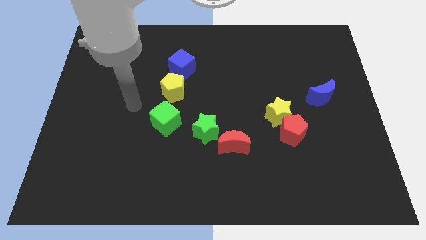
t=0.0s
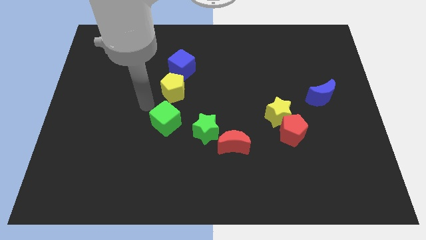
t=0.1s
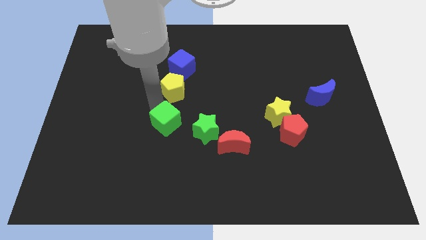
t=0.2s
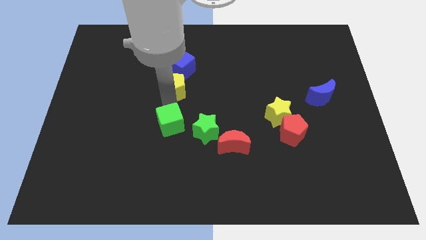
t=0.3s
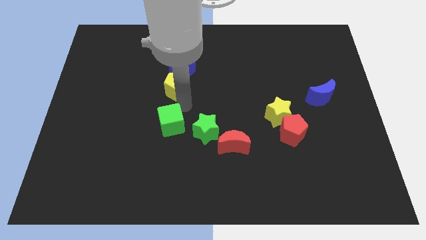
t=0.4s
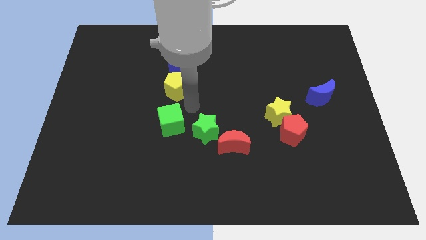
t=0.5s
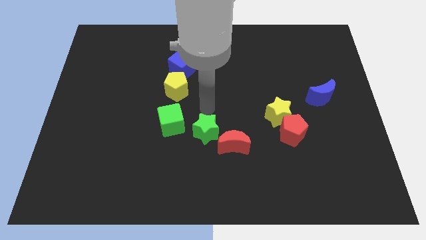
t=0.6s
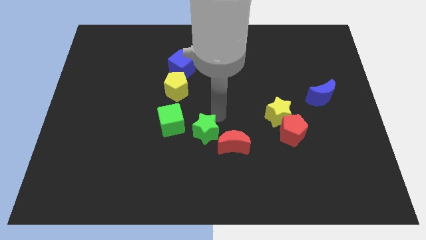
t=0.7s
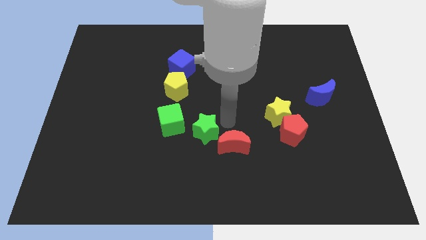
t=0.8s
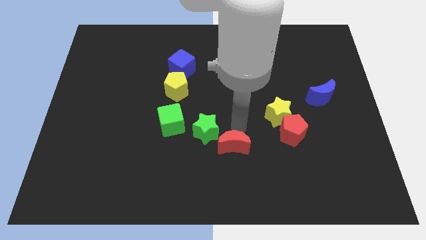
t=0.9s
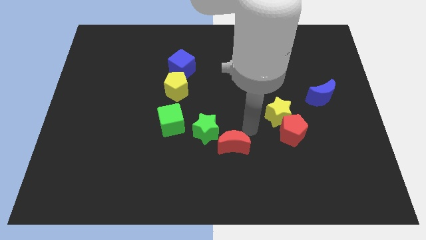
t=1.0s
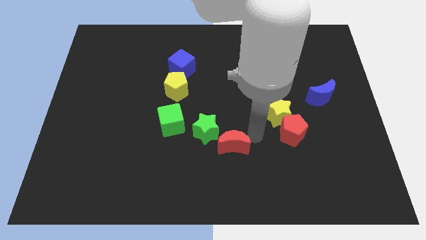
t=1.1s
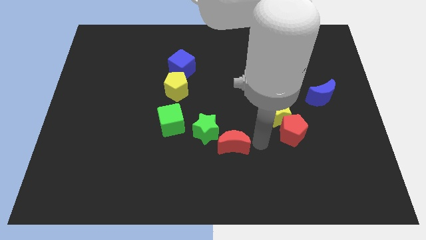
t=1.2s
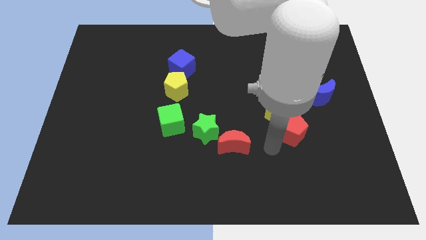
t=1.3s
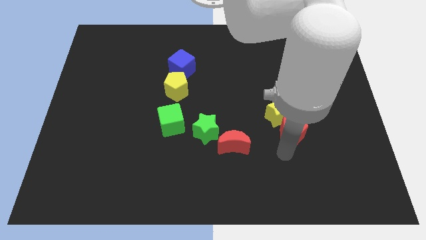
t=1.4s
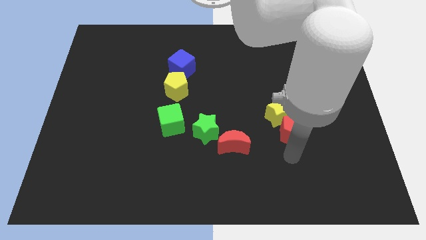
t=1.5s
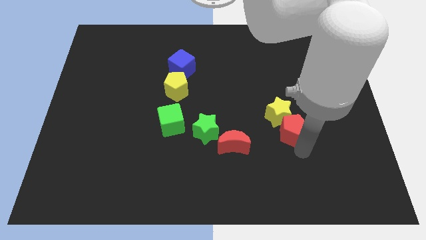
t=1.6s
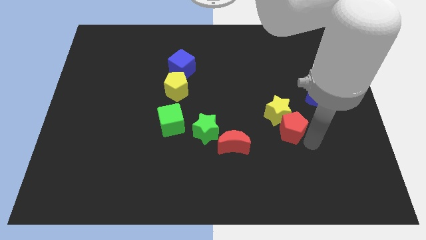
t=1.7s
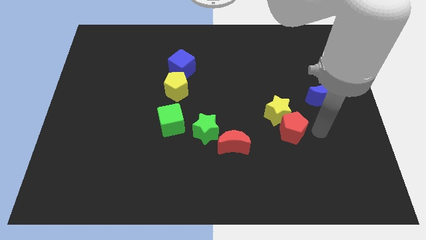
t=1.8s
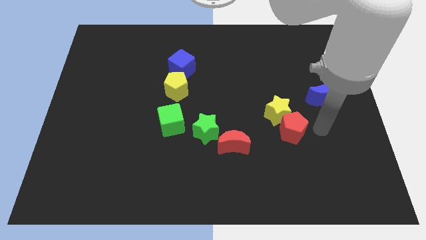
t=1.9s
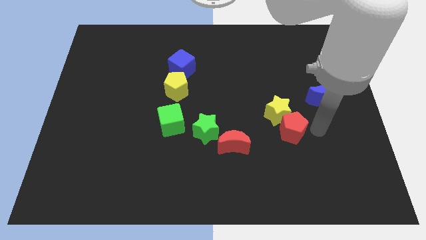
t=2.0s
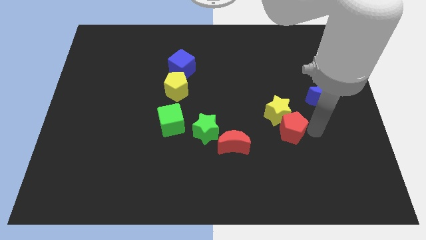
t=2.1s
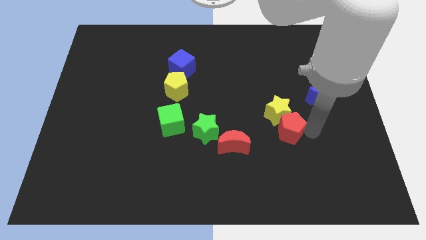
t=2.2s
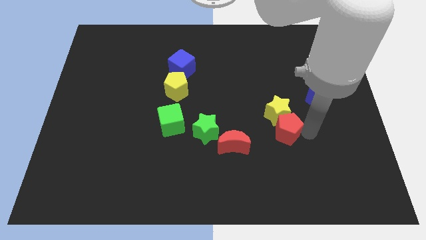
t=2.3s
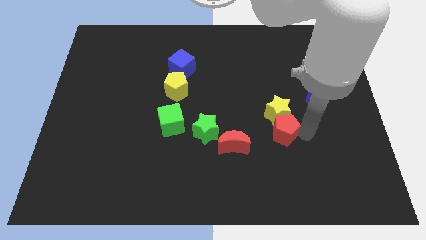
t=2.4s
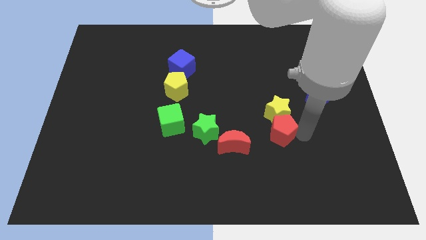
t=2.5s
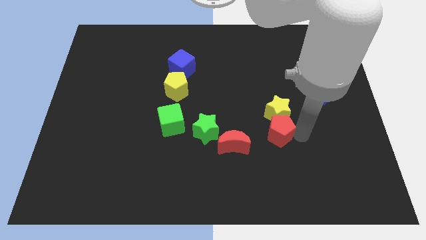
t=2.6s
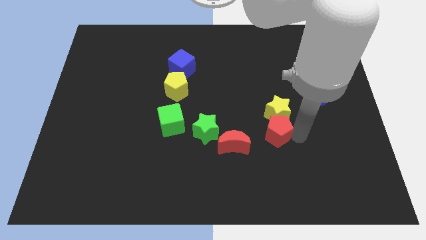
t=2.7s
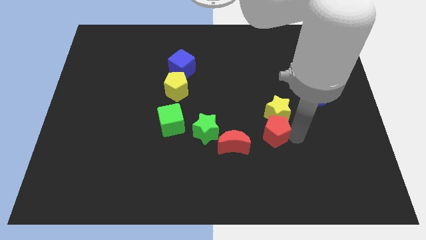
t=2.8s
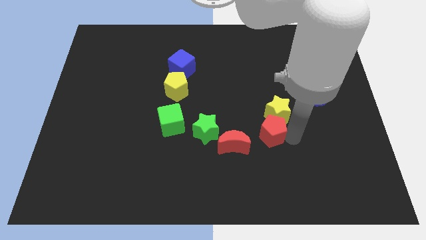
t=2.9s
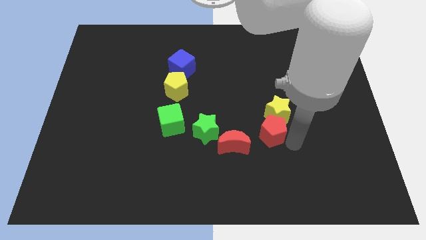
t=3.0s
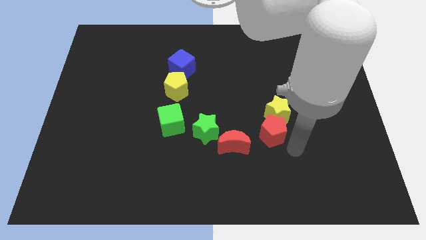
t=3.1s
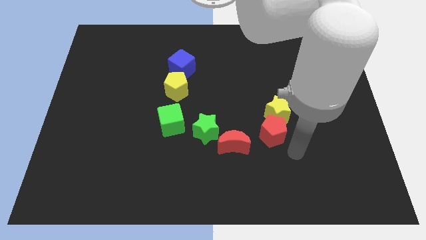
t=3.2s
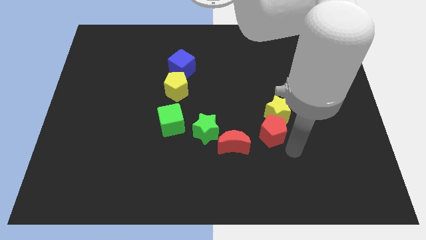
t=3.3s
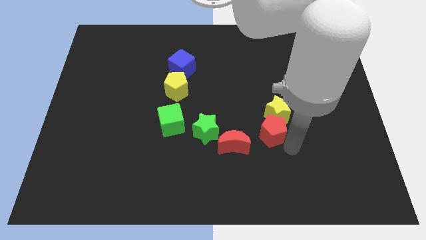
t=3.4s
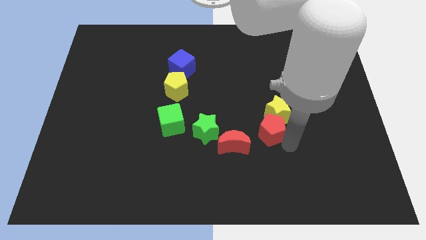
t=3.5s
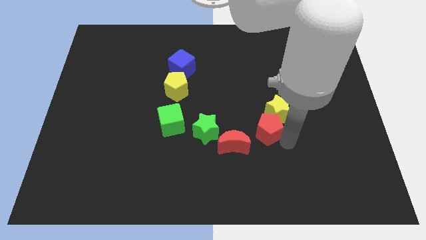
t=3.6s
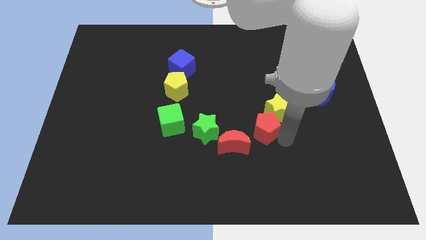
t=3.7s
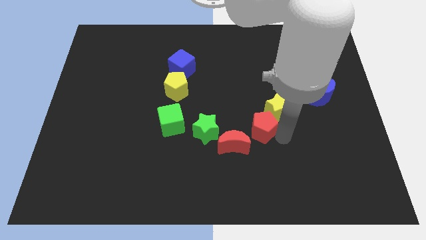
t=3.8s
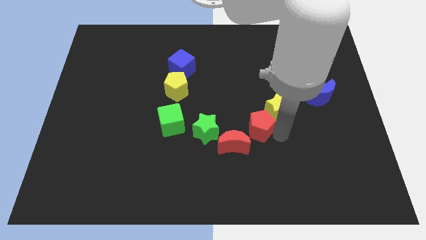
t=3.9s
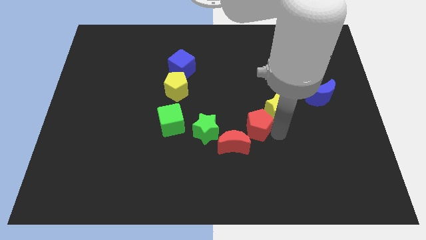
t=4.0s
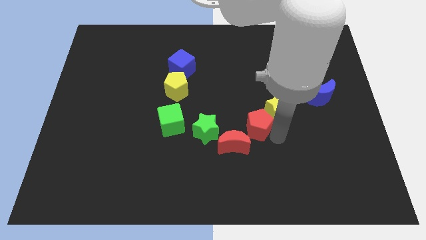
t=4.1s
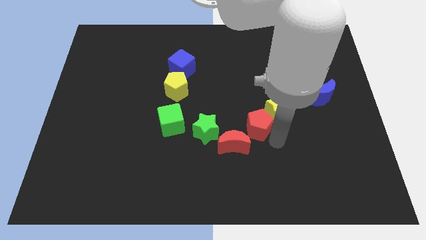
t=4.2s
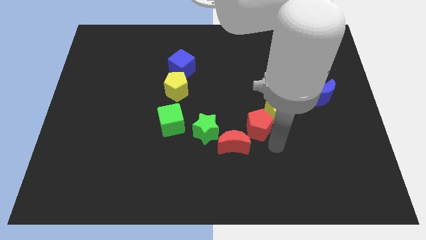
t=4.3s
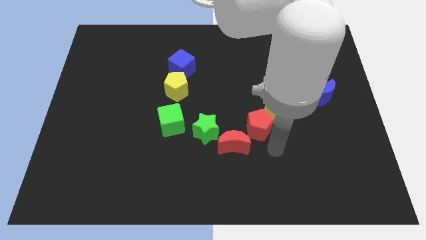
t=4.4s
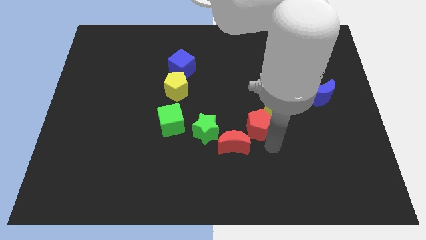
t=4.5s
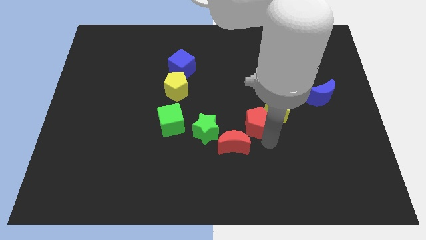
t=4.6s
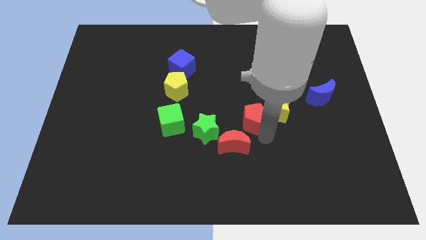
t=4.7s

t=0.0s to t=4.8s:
move the red pentagon slightly upwards and left diagonally

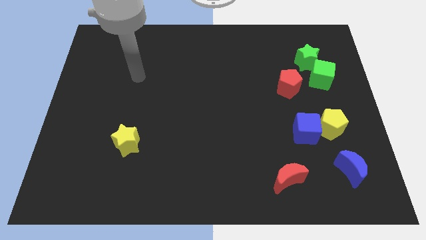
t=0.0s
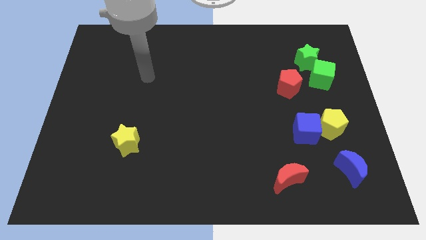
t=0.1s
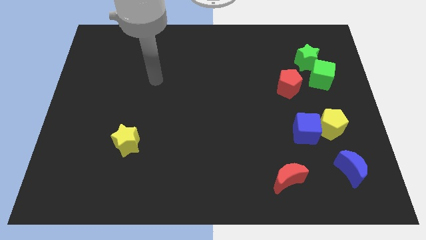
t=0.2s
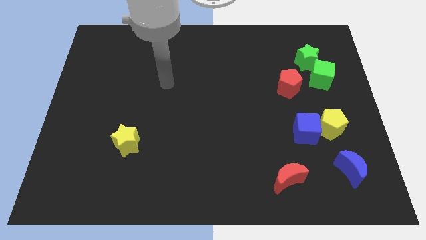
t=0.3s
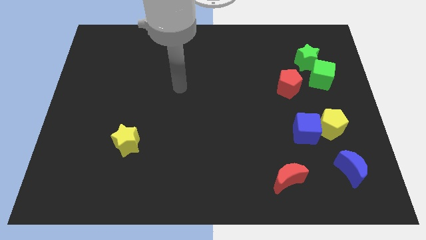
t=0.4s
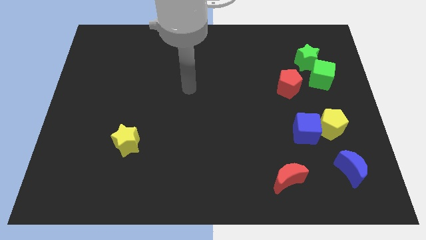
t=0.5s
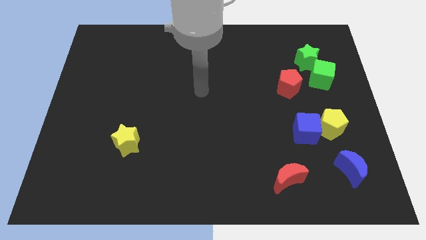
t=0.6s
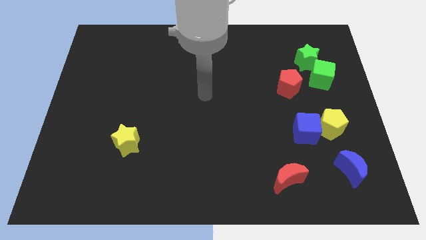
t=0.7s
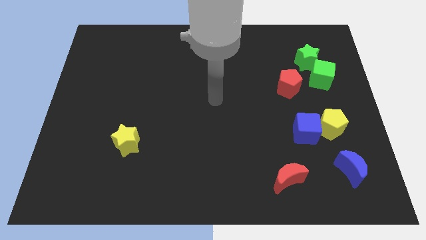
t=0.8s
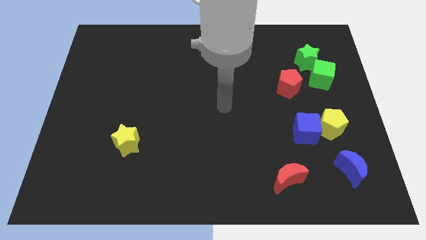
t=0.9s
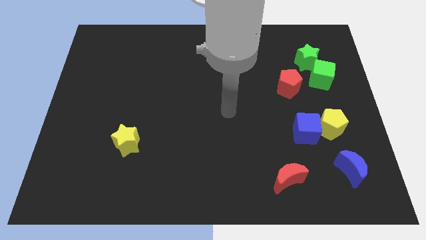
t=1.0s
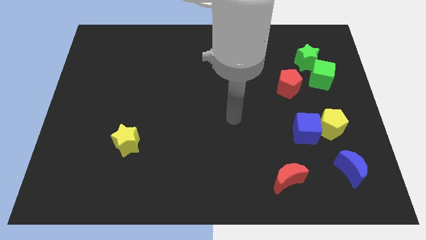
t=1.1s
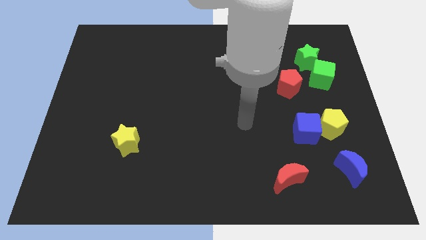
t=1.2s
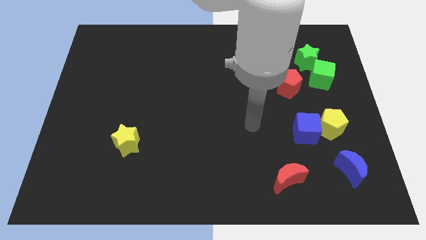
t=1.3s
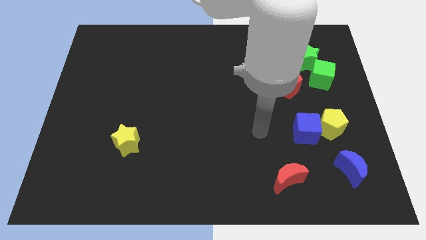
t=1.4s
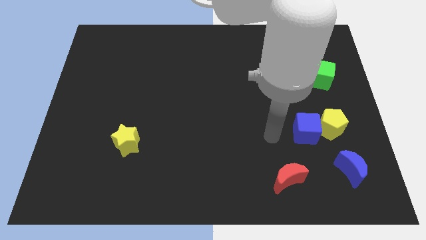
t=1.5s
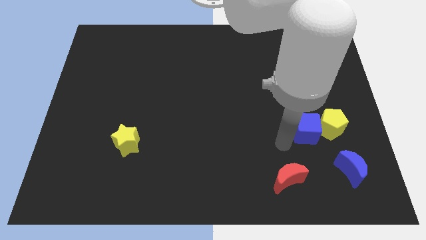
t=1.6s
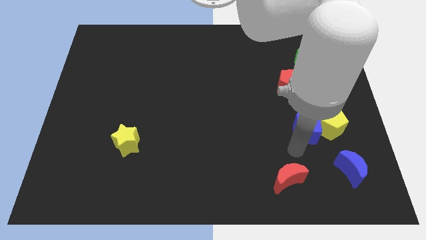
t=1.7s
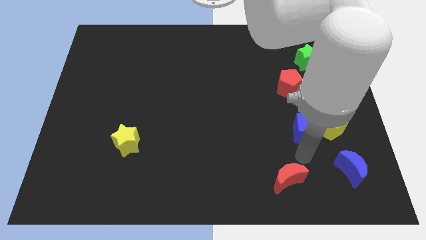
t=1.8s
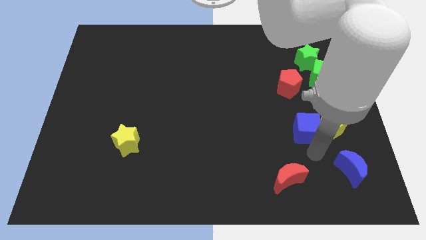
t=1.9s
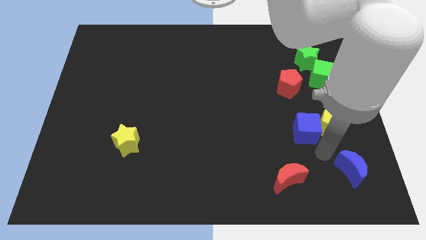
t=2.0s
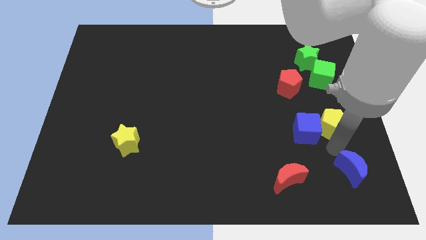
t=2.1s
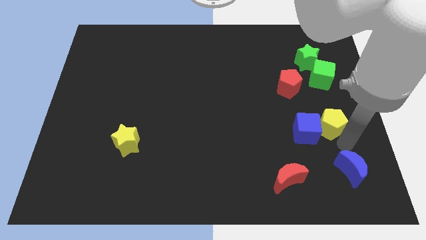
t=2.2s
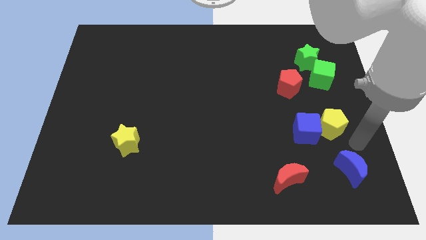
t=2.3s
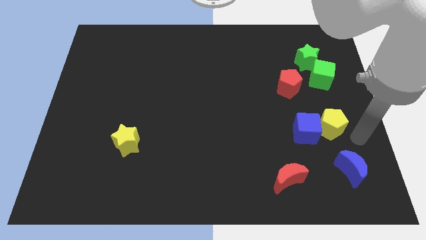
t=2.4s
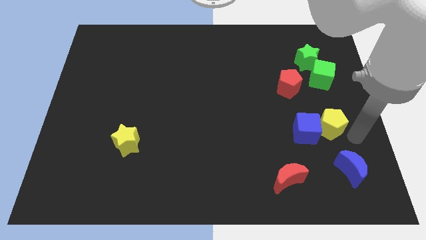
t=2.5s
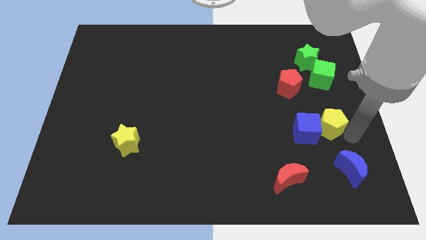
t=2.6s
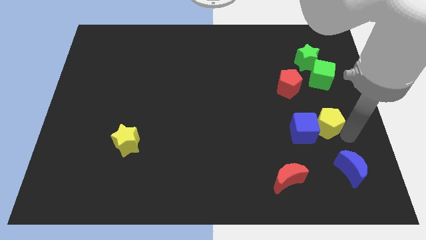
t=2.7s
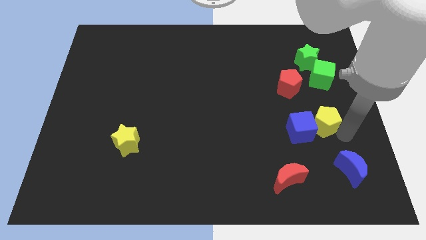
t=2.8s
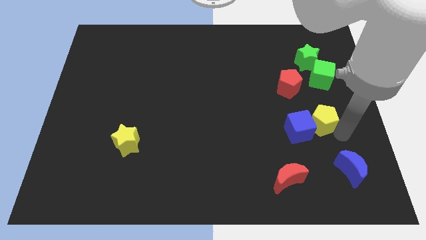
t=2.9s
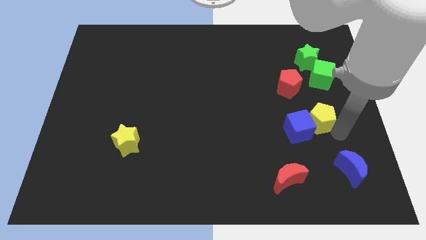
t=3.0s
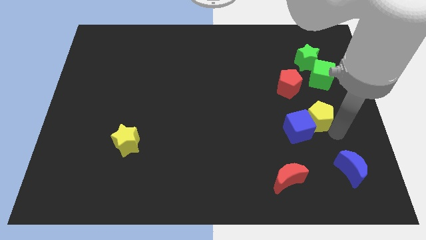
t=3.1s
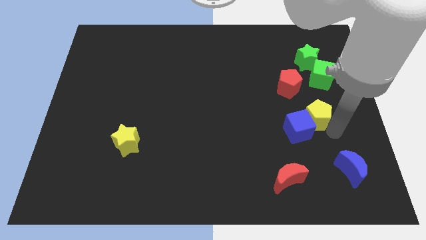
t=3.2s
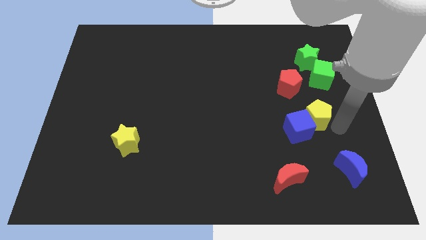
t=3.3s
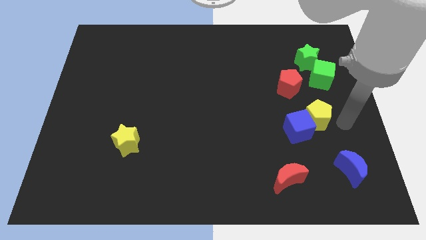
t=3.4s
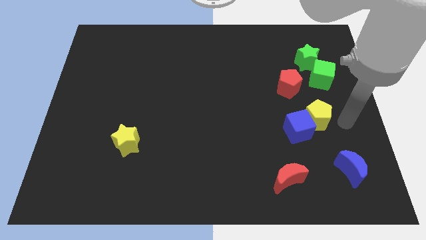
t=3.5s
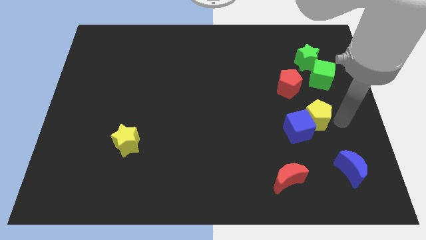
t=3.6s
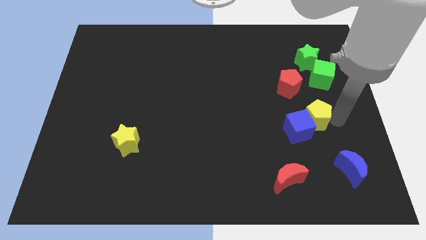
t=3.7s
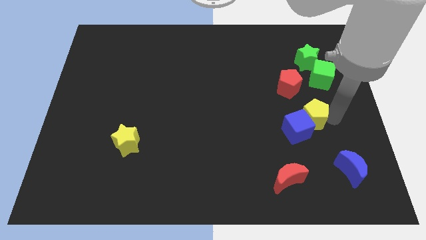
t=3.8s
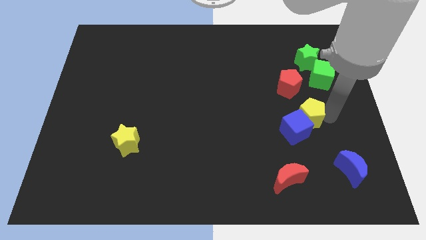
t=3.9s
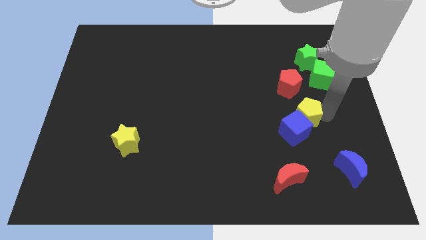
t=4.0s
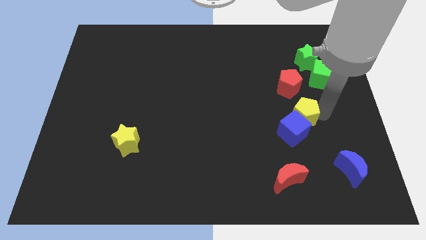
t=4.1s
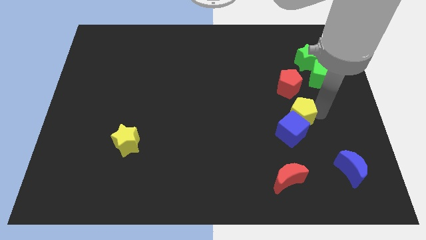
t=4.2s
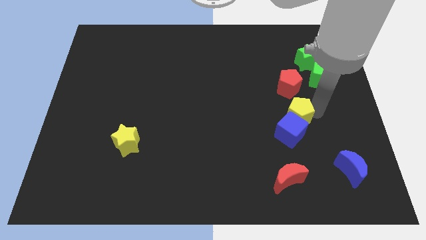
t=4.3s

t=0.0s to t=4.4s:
slide the yellow pentagon upwards and to the left diagonally a little bit
